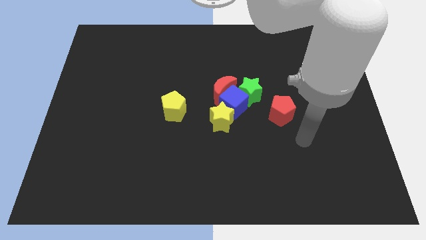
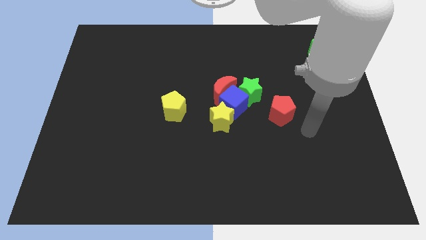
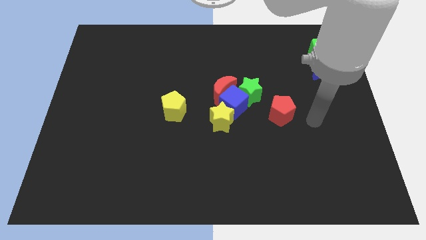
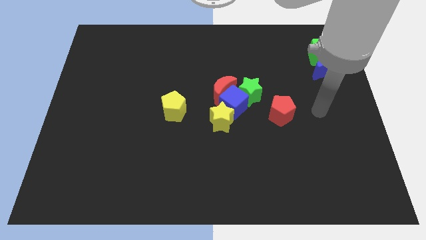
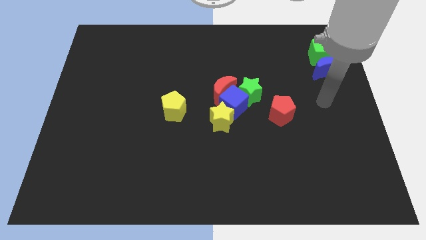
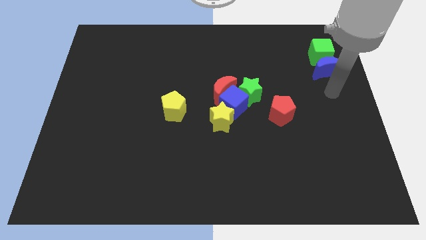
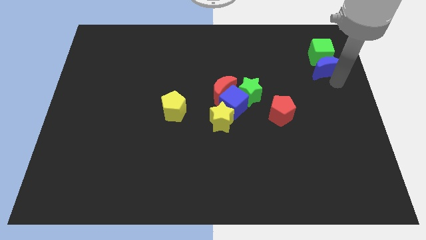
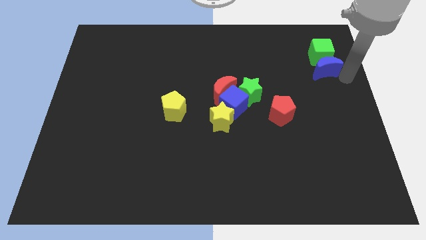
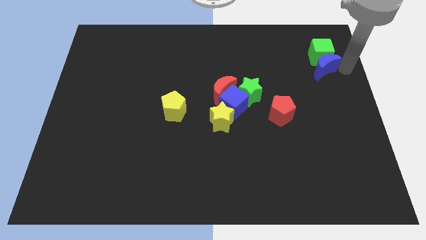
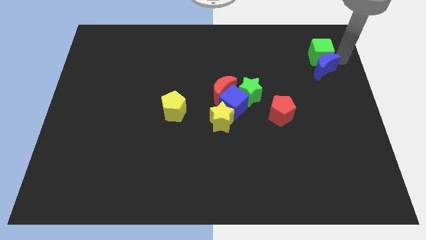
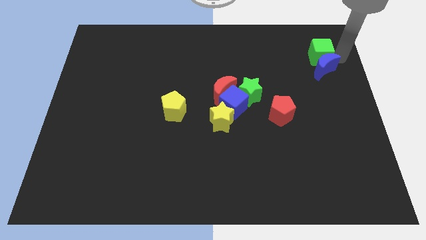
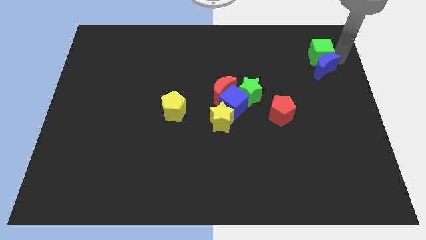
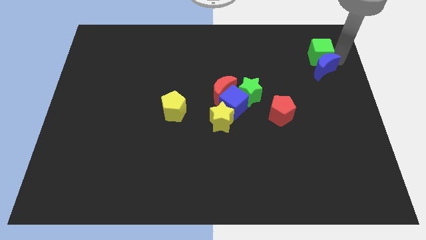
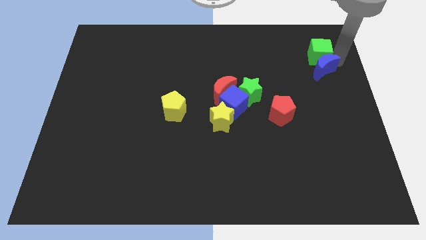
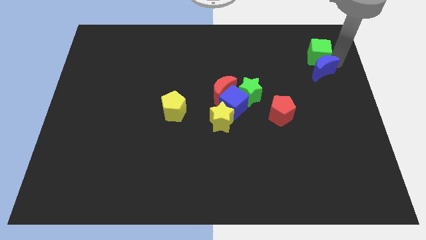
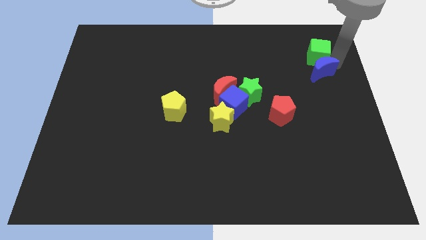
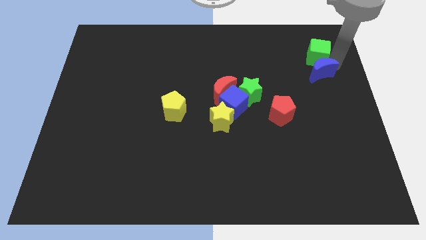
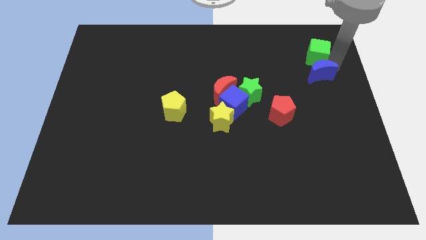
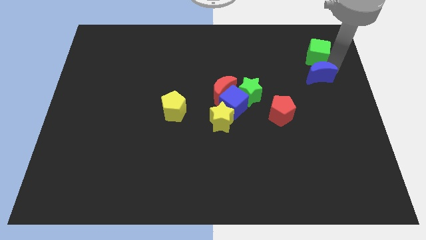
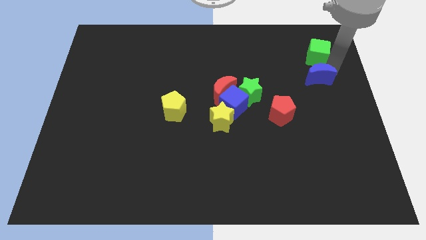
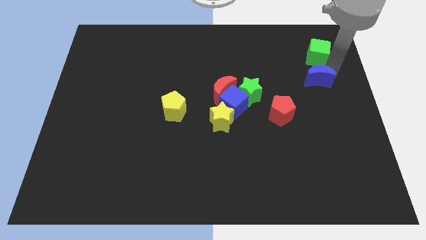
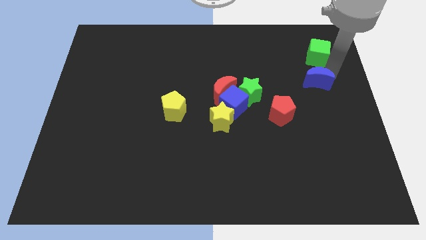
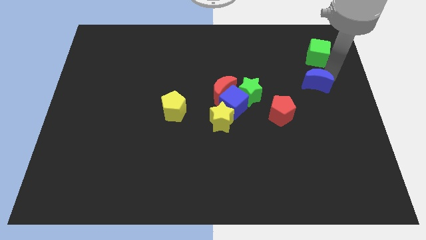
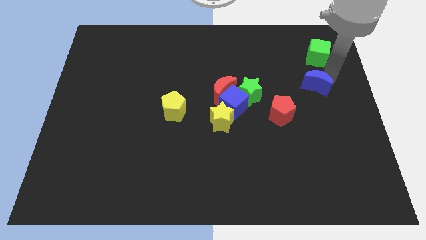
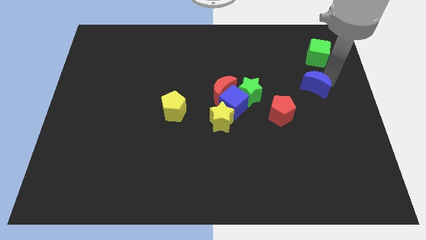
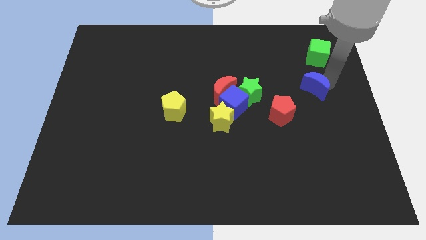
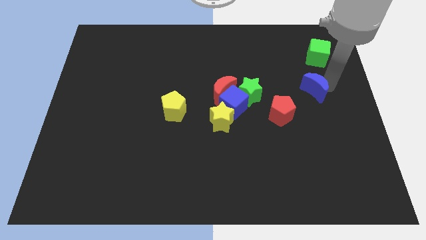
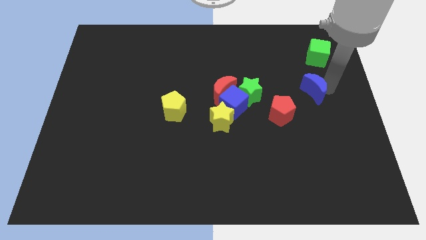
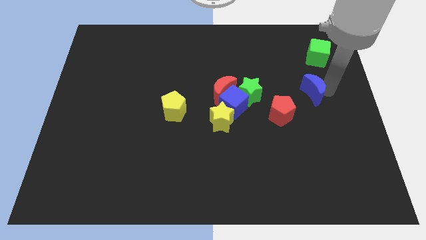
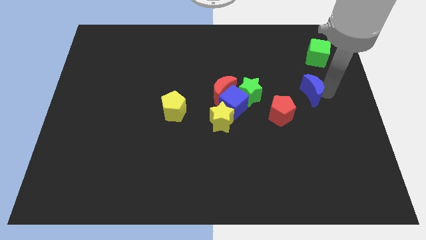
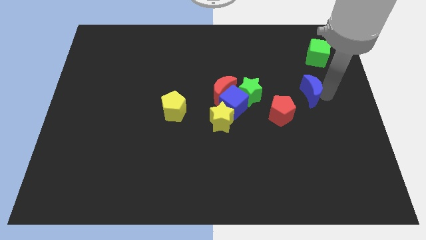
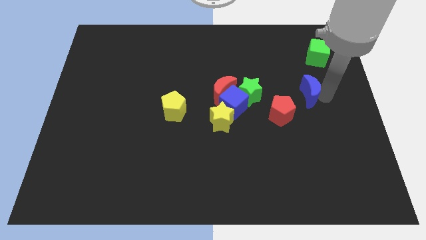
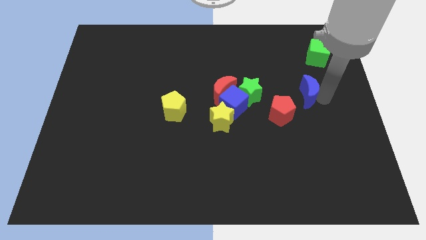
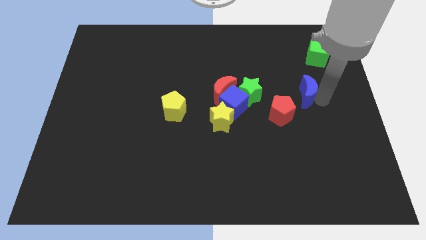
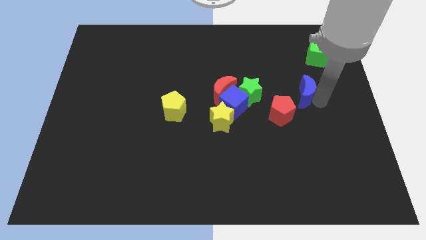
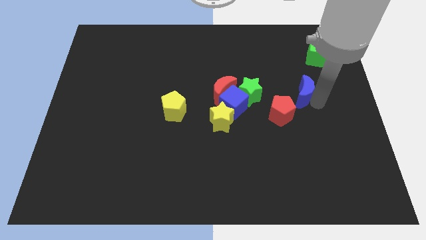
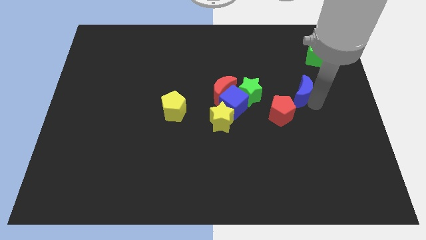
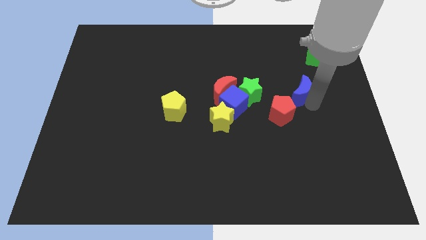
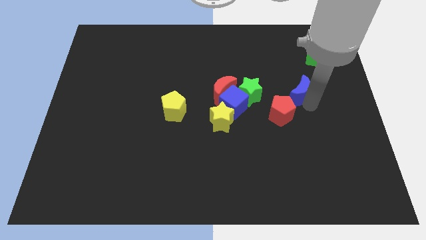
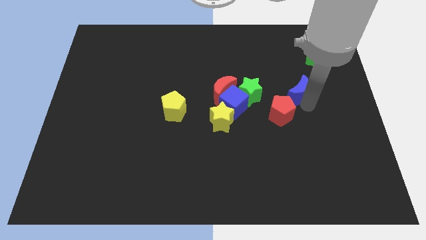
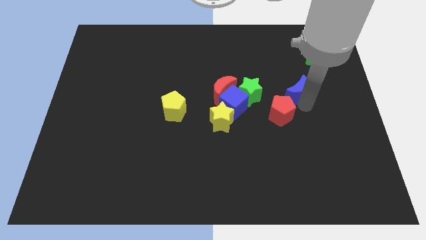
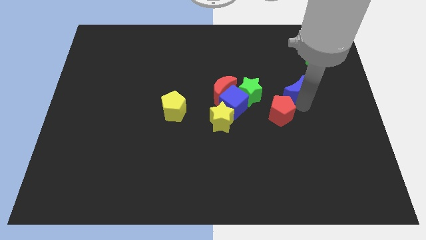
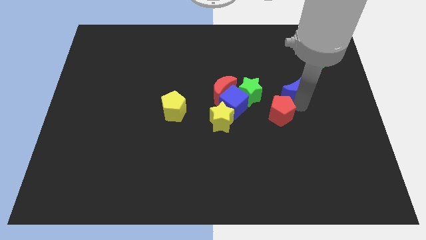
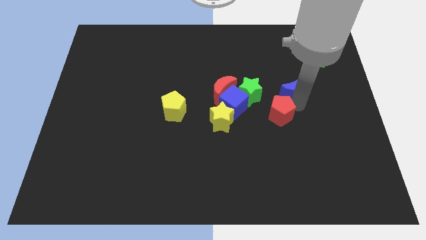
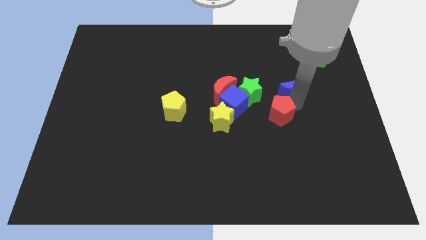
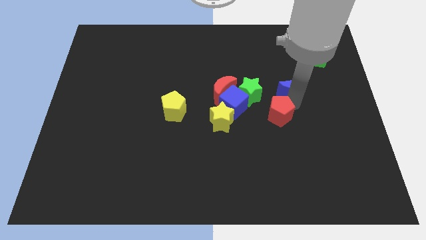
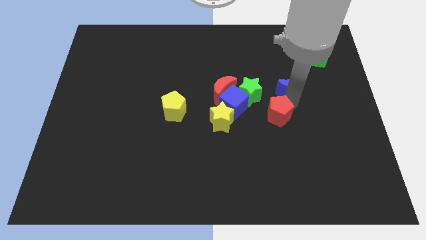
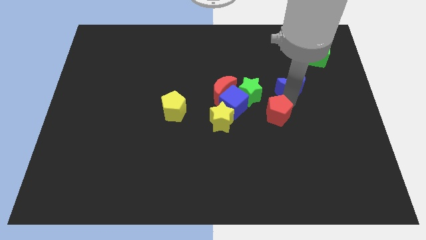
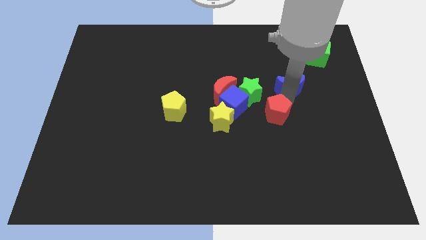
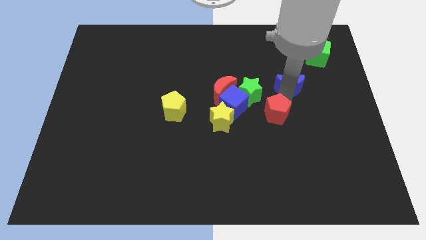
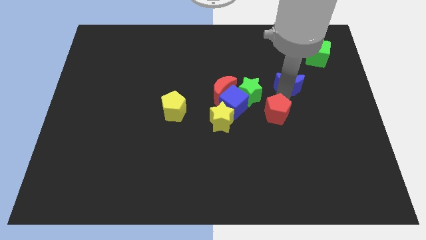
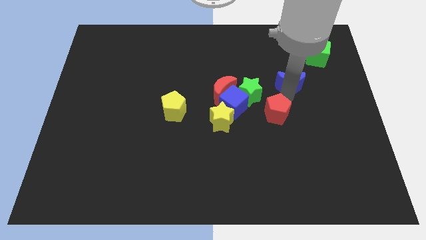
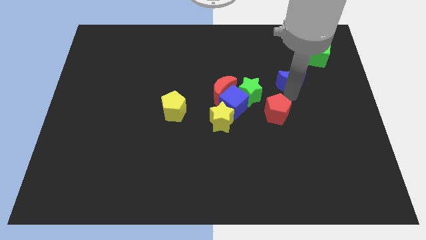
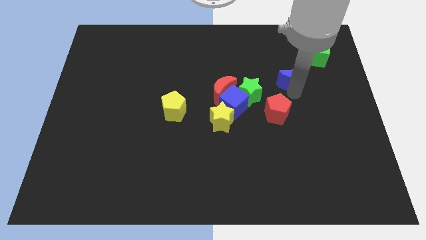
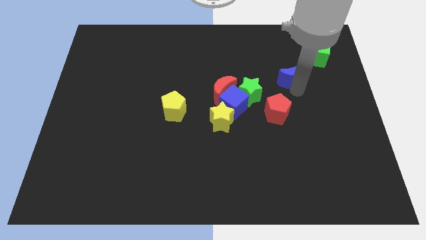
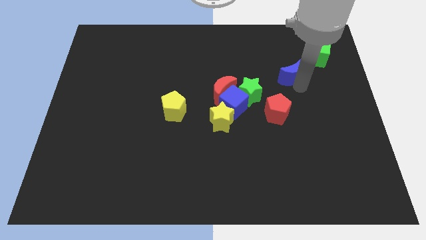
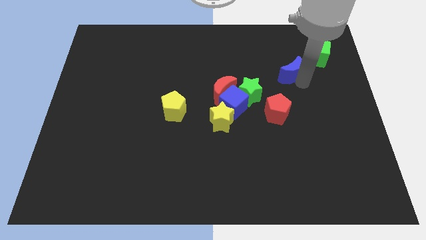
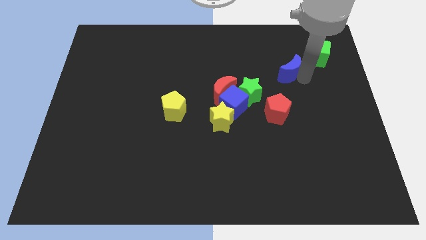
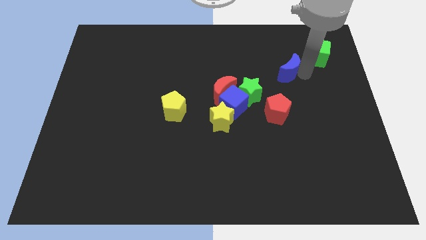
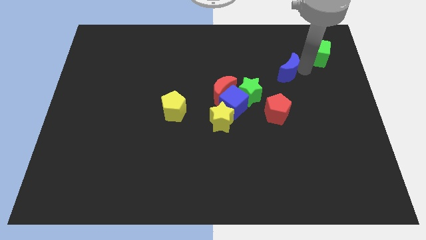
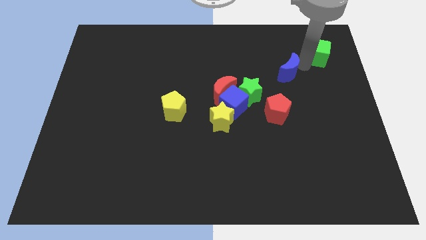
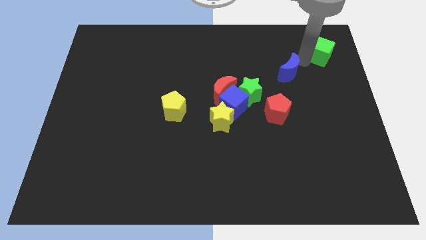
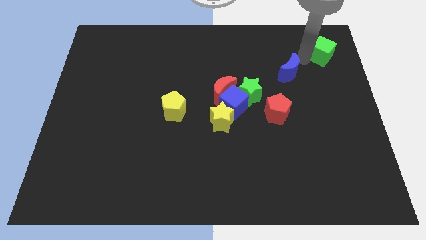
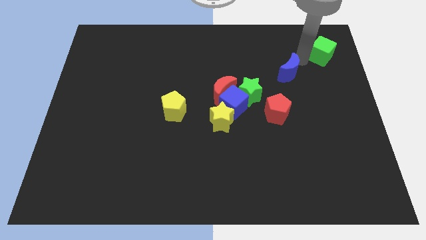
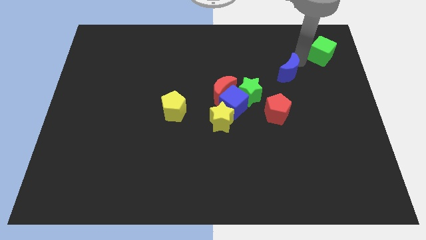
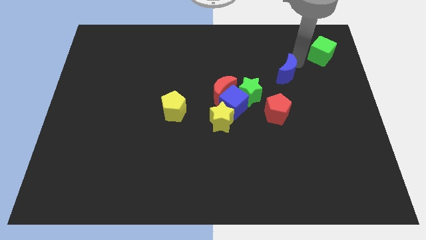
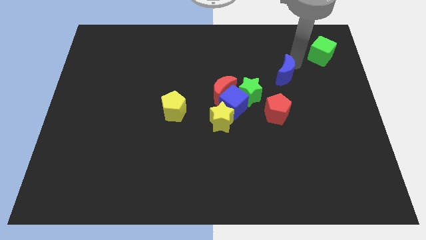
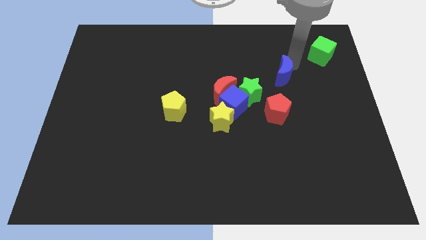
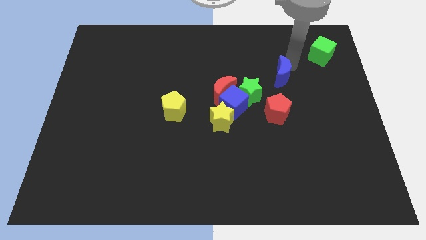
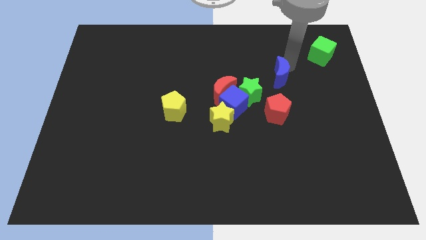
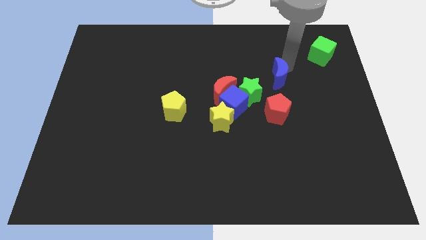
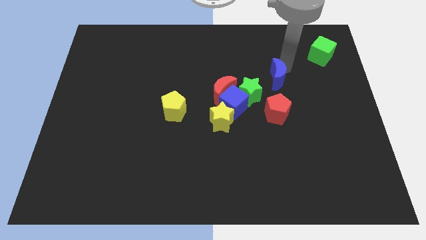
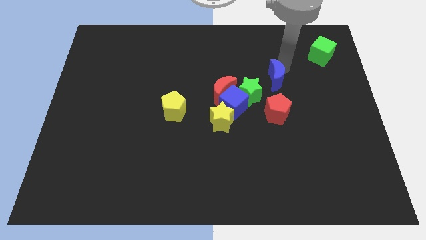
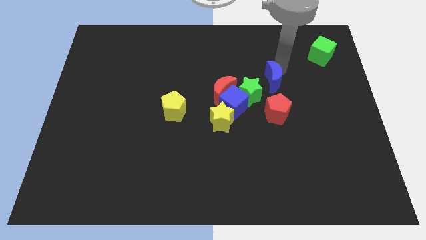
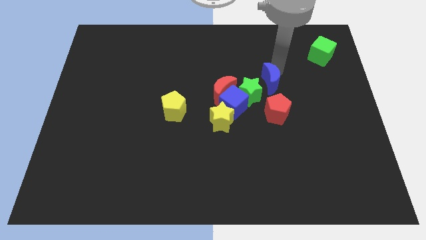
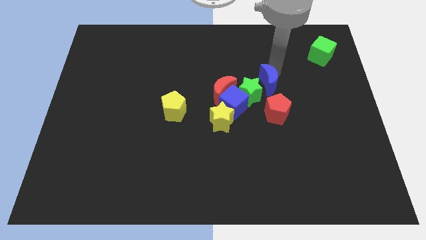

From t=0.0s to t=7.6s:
move the blue moon to the green star
